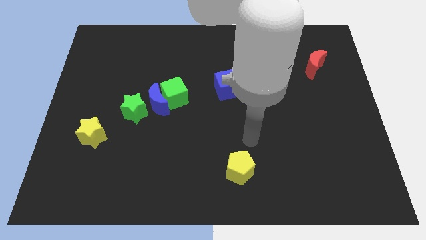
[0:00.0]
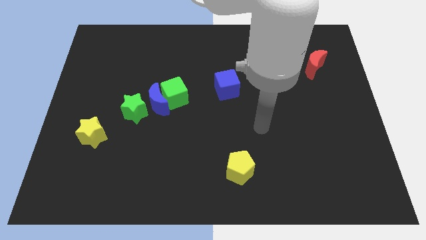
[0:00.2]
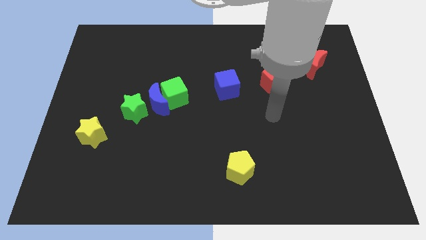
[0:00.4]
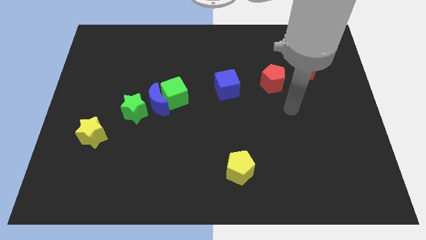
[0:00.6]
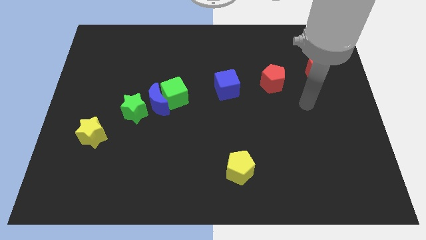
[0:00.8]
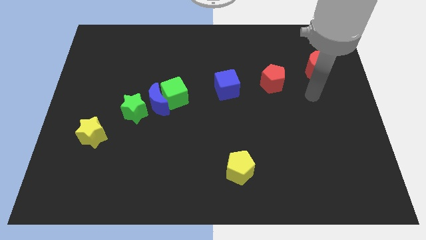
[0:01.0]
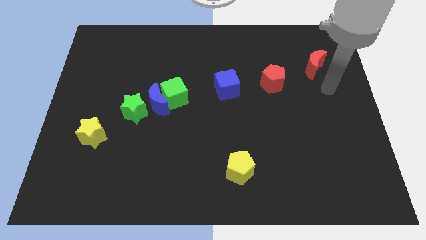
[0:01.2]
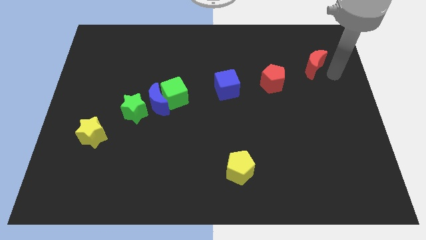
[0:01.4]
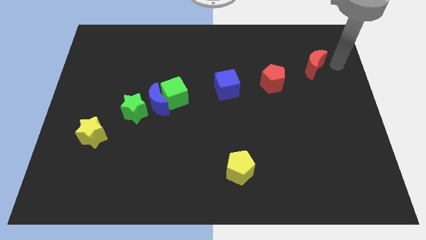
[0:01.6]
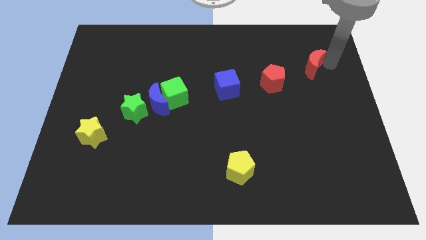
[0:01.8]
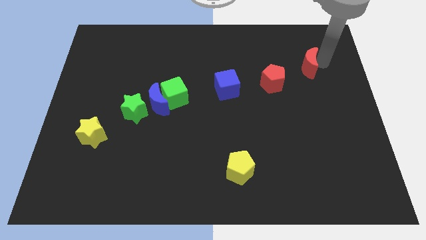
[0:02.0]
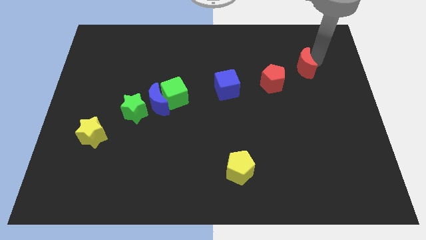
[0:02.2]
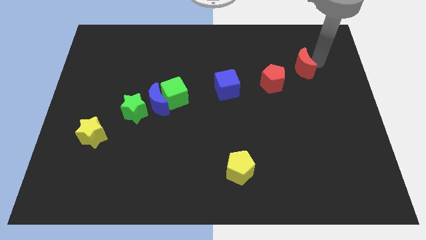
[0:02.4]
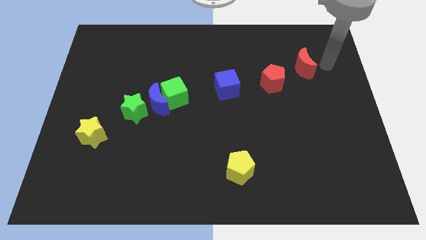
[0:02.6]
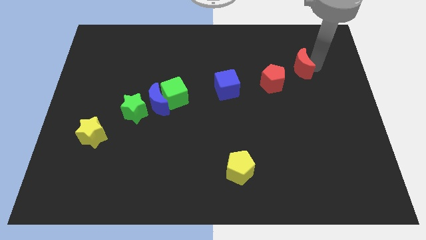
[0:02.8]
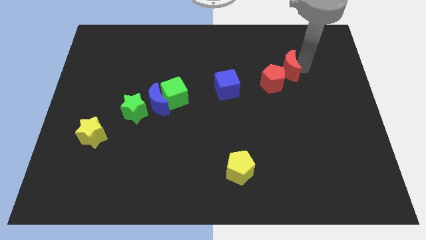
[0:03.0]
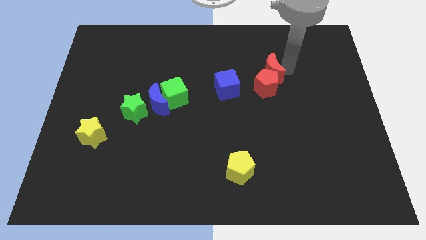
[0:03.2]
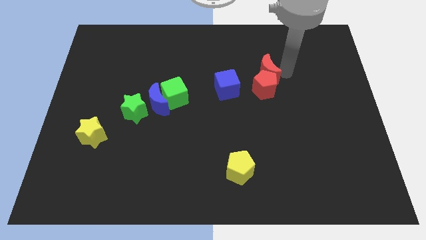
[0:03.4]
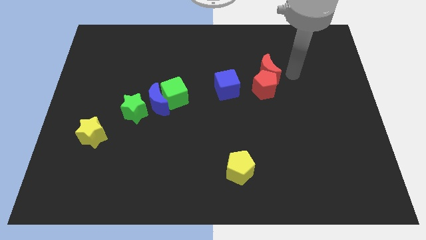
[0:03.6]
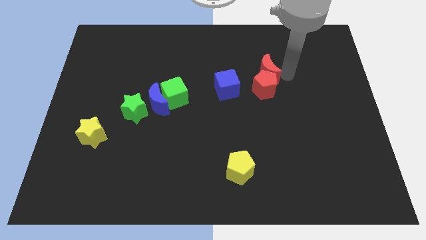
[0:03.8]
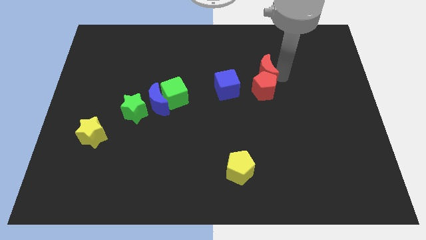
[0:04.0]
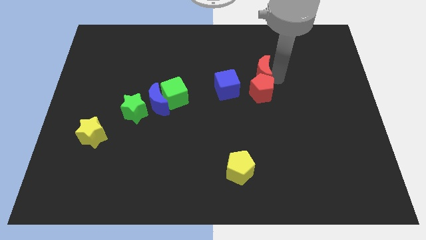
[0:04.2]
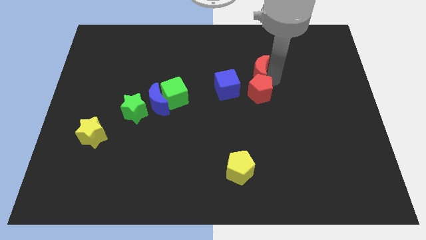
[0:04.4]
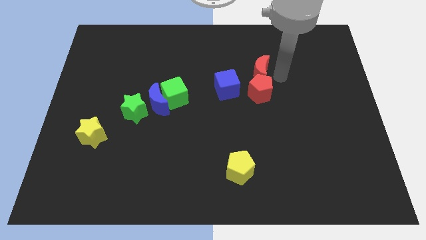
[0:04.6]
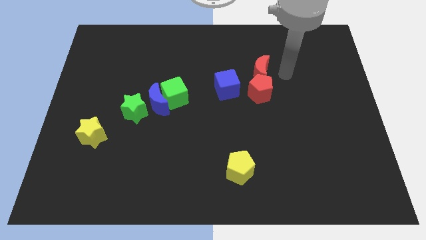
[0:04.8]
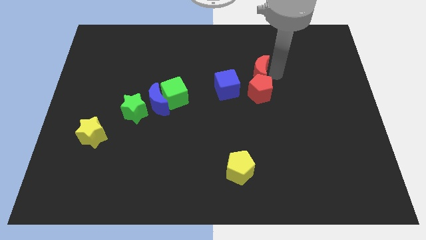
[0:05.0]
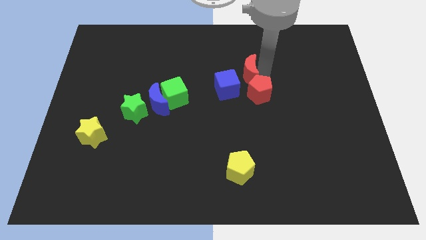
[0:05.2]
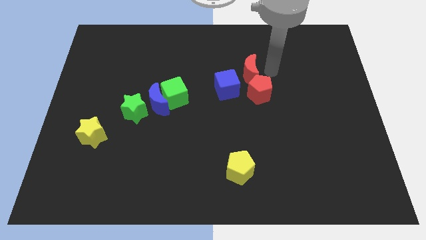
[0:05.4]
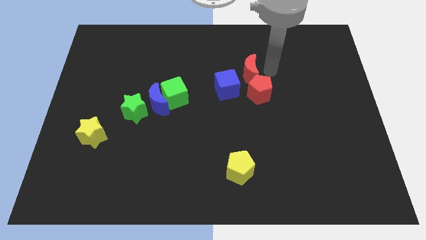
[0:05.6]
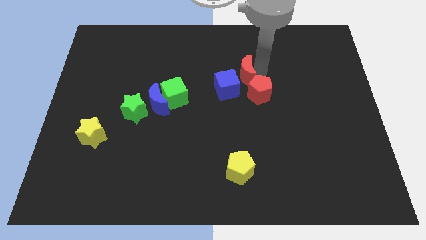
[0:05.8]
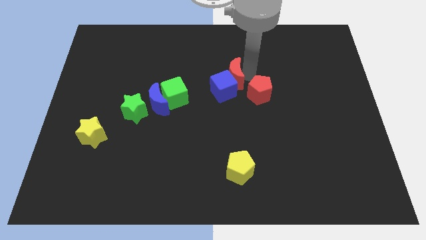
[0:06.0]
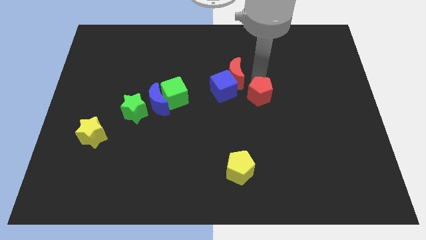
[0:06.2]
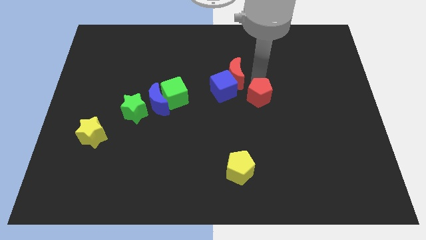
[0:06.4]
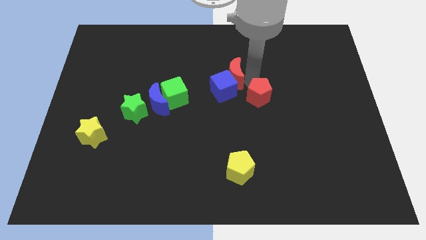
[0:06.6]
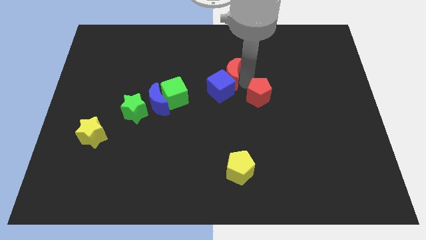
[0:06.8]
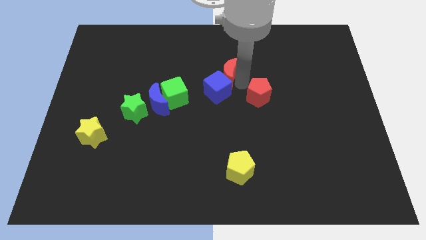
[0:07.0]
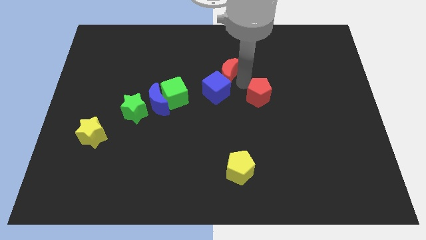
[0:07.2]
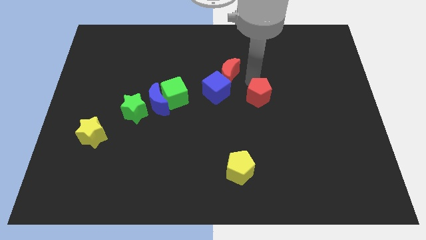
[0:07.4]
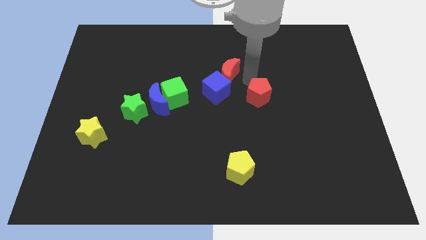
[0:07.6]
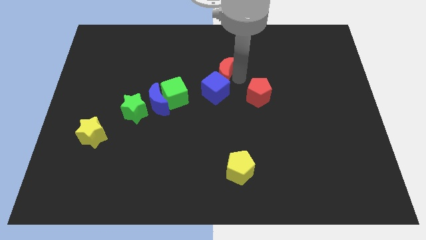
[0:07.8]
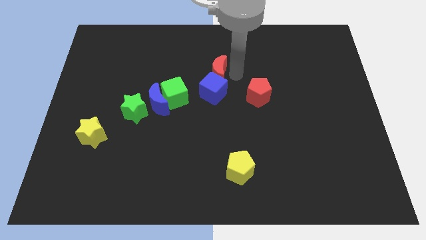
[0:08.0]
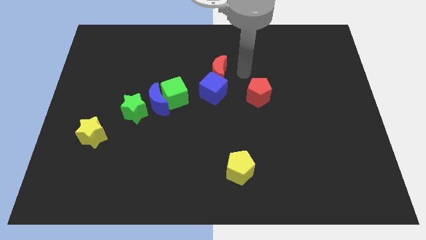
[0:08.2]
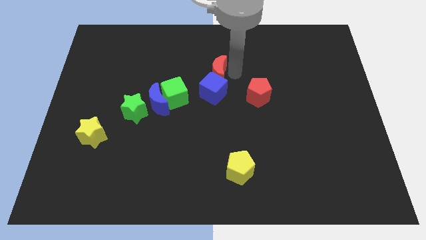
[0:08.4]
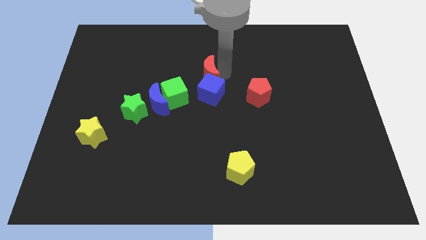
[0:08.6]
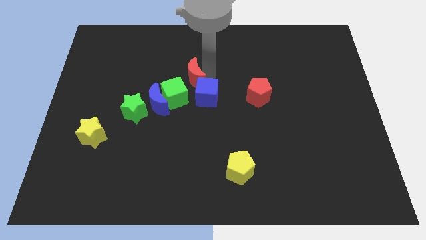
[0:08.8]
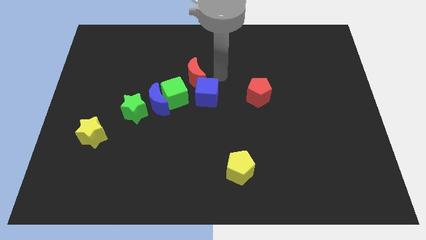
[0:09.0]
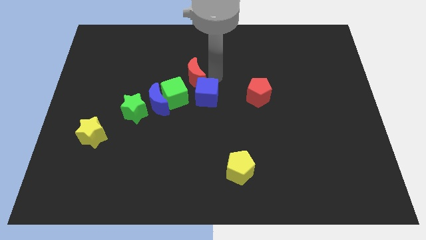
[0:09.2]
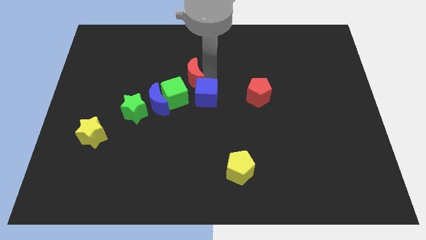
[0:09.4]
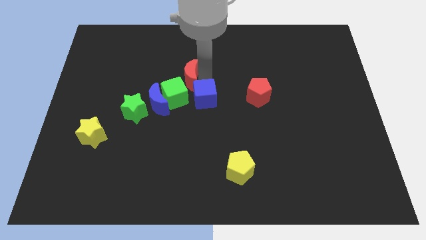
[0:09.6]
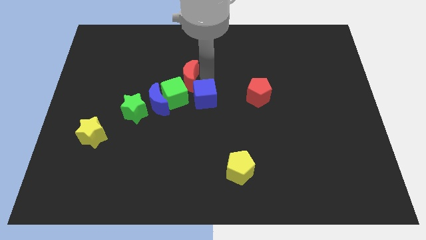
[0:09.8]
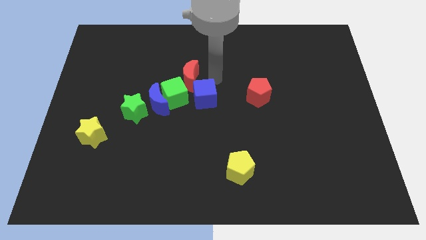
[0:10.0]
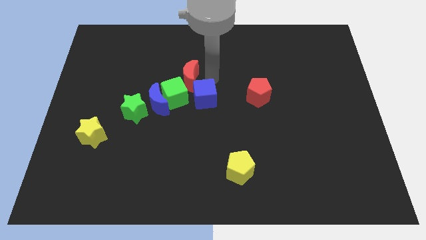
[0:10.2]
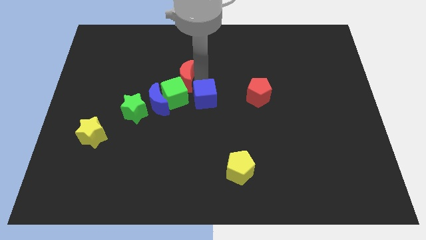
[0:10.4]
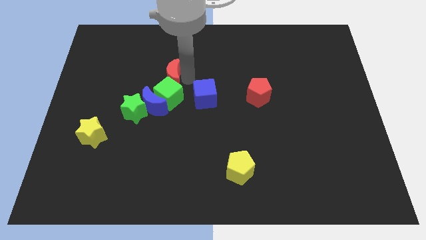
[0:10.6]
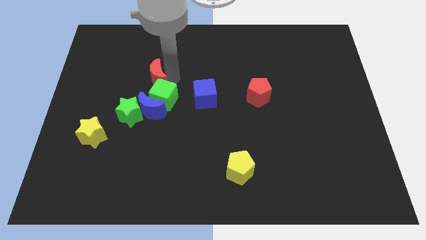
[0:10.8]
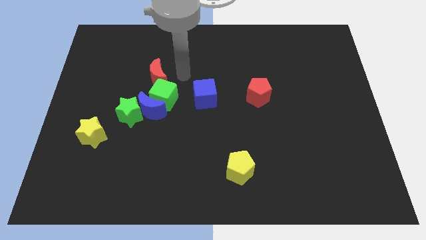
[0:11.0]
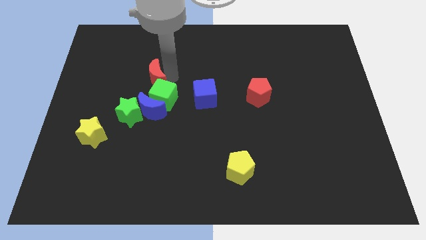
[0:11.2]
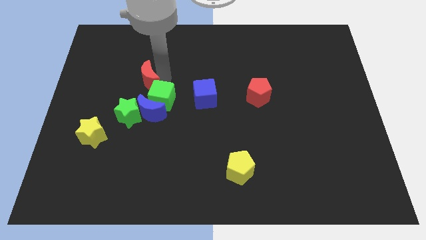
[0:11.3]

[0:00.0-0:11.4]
push the red moon to the top side of the green star

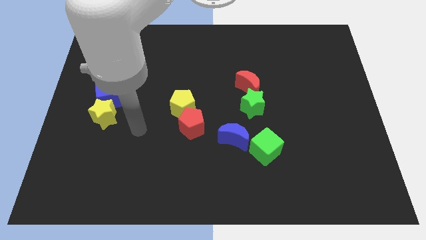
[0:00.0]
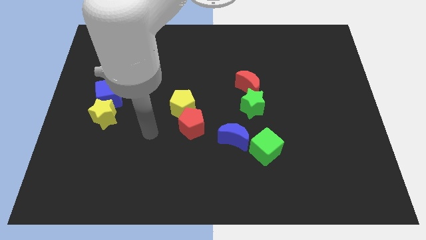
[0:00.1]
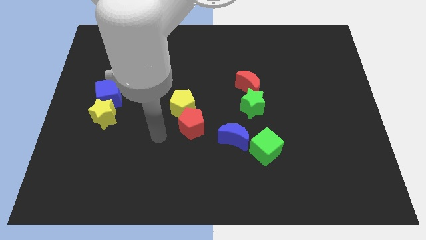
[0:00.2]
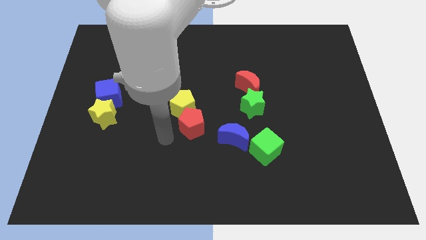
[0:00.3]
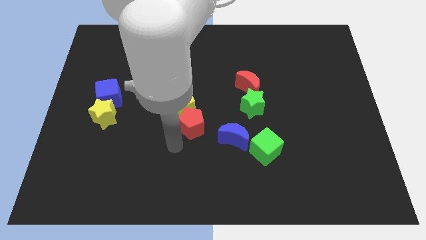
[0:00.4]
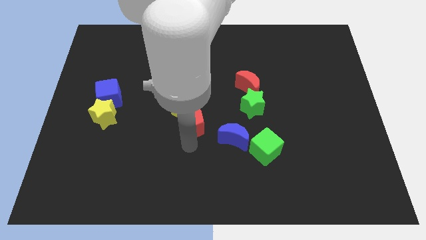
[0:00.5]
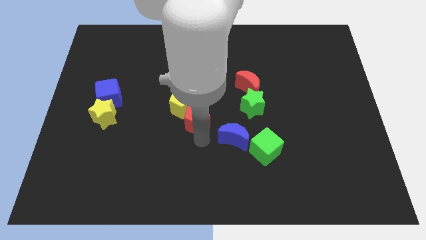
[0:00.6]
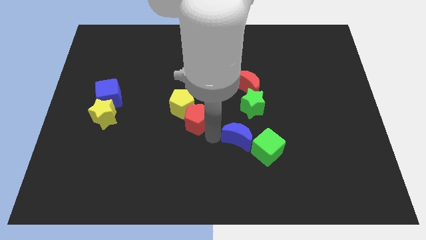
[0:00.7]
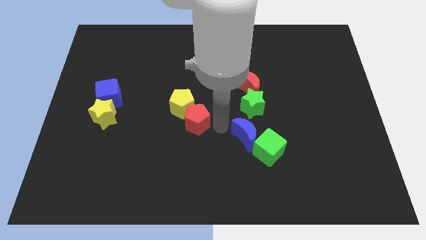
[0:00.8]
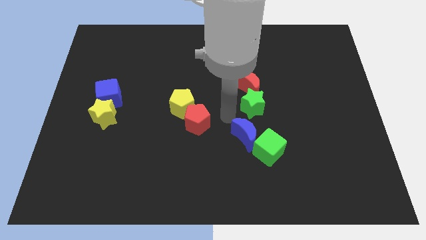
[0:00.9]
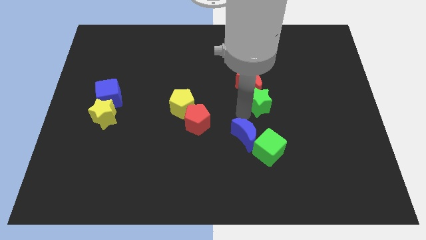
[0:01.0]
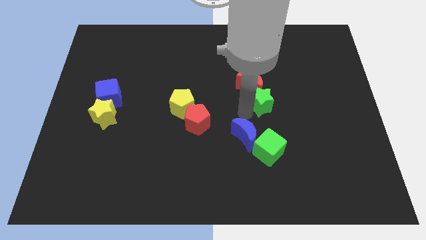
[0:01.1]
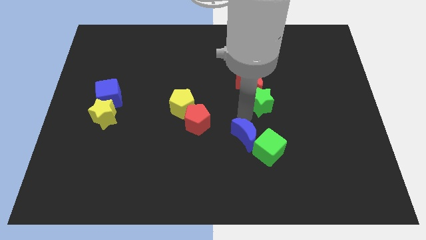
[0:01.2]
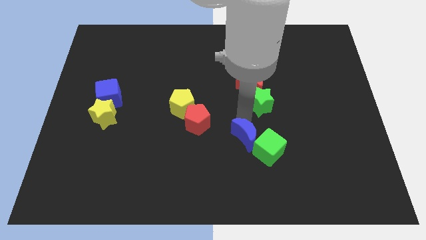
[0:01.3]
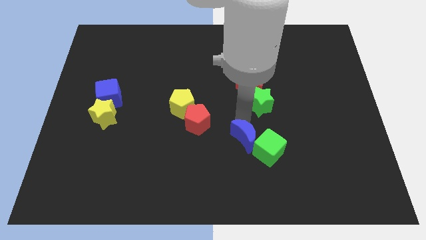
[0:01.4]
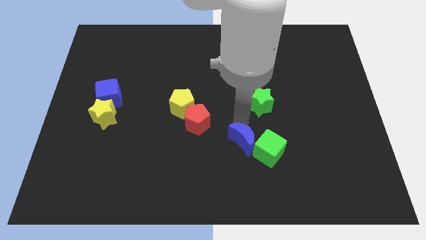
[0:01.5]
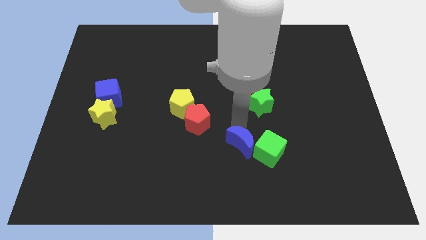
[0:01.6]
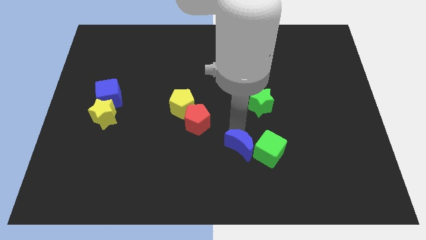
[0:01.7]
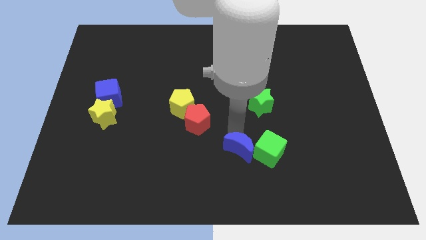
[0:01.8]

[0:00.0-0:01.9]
put the blue moon diagonally down and to the left of the green cube
